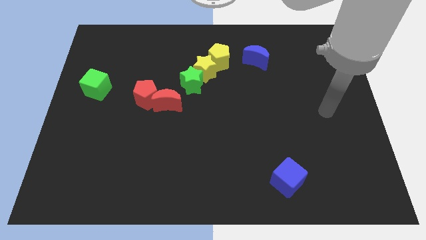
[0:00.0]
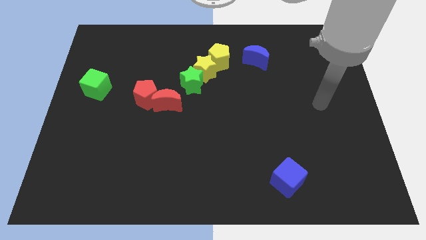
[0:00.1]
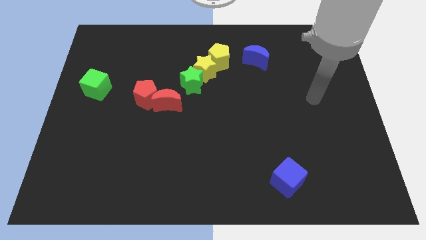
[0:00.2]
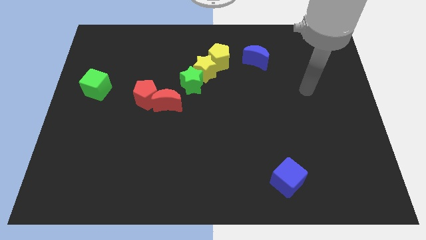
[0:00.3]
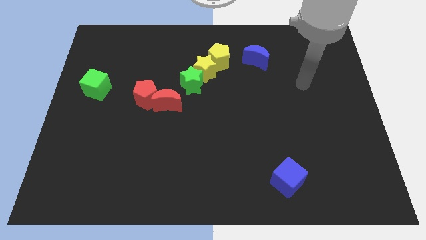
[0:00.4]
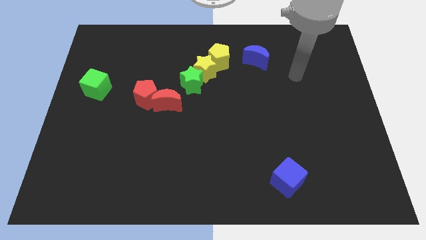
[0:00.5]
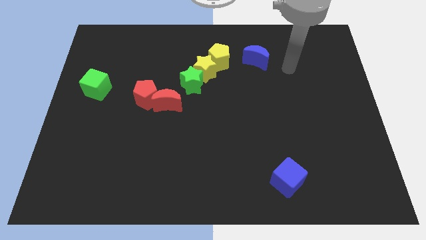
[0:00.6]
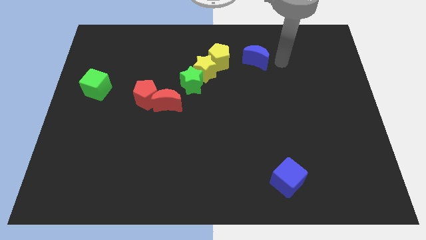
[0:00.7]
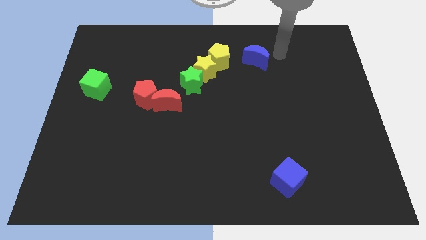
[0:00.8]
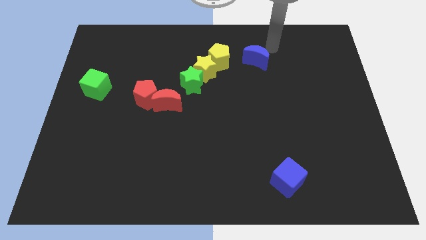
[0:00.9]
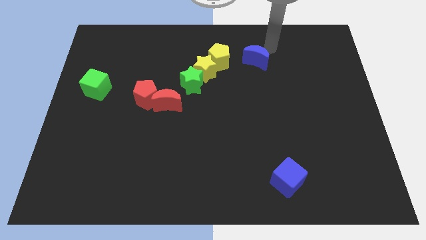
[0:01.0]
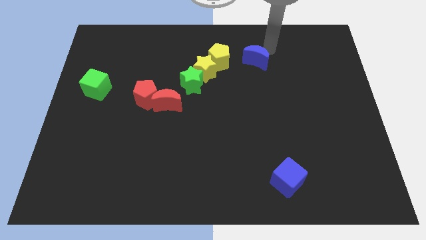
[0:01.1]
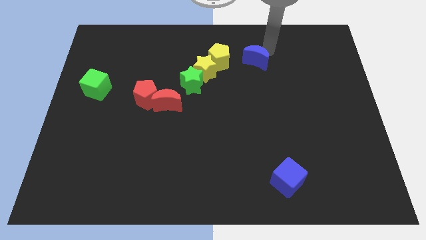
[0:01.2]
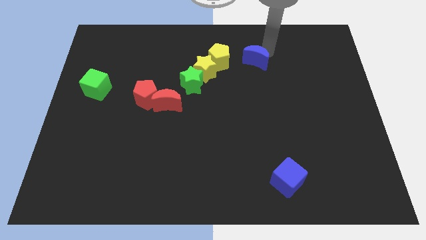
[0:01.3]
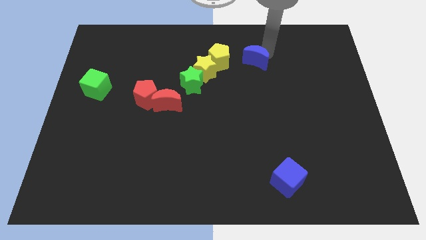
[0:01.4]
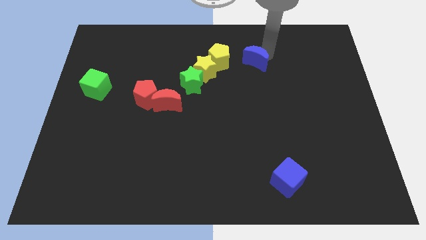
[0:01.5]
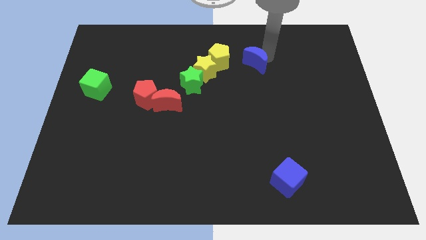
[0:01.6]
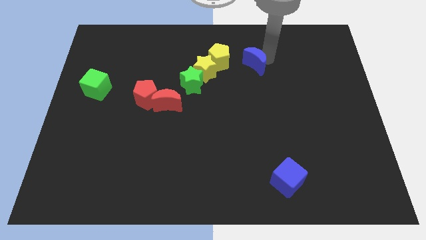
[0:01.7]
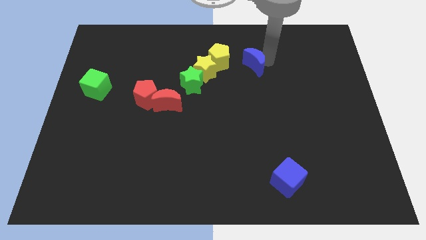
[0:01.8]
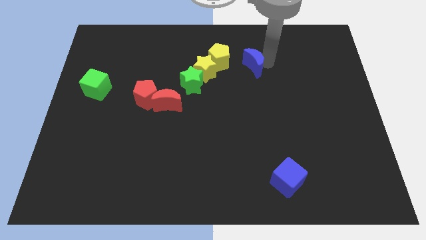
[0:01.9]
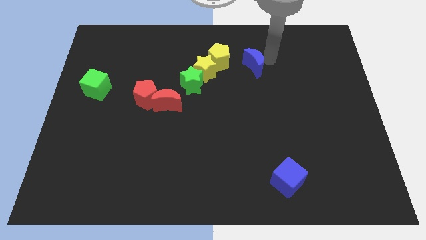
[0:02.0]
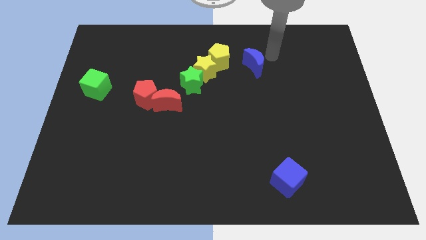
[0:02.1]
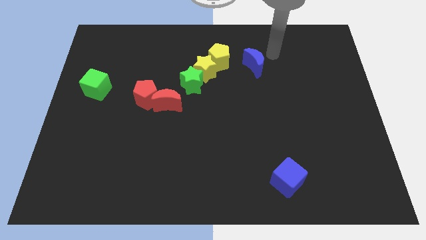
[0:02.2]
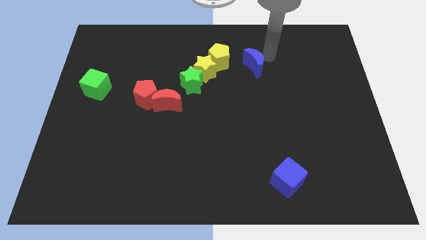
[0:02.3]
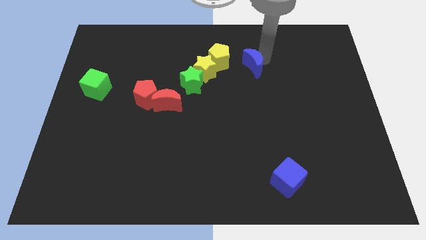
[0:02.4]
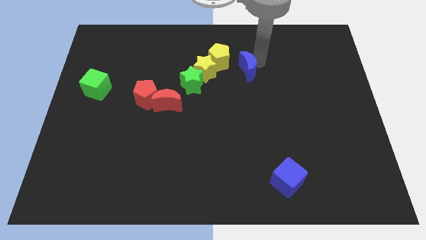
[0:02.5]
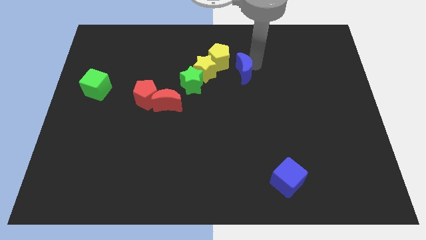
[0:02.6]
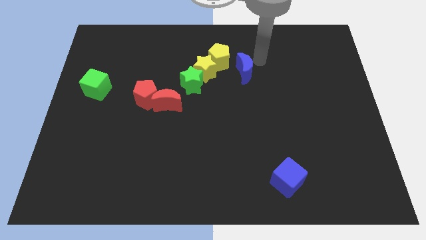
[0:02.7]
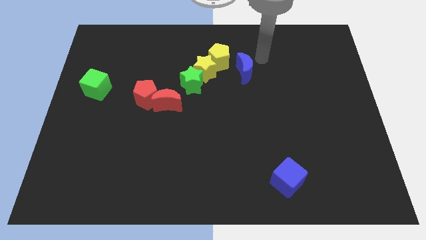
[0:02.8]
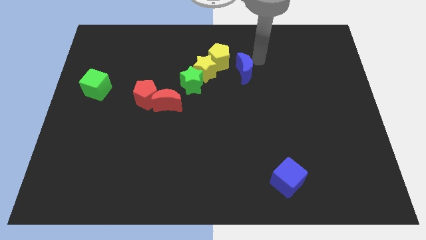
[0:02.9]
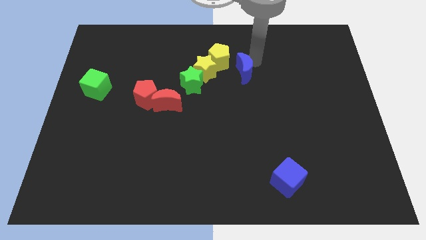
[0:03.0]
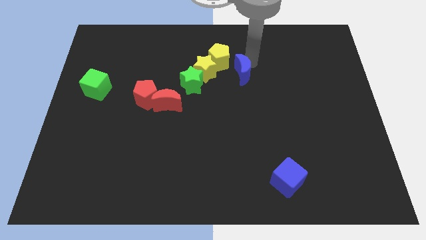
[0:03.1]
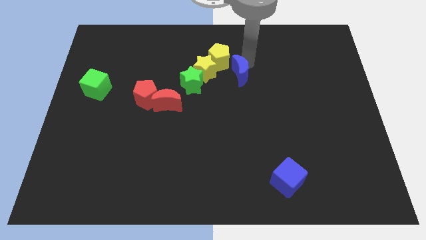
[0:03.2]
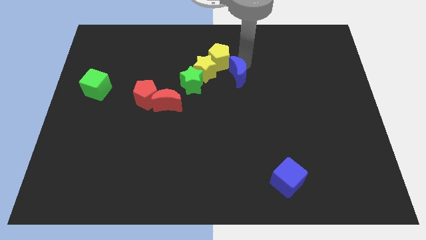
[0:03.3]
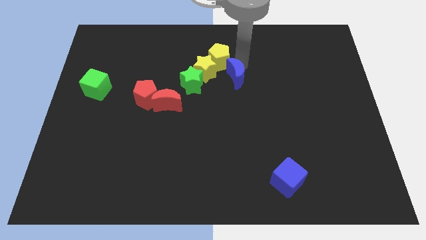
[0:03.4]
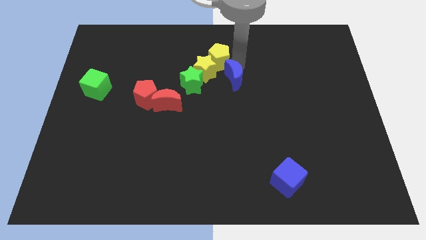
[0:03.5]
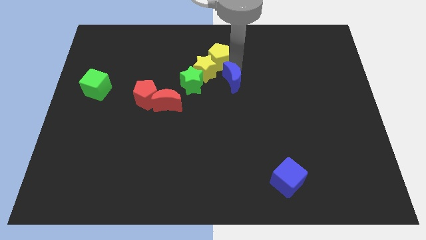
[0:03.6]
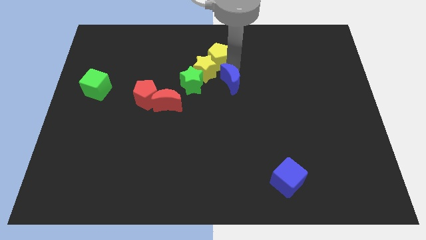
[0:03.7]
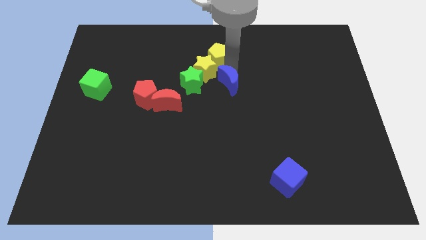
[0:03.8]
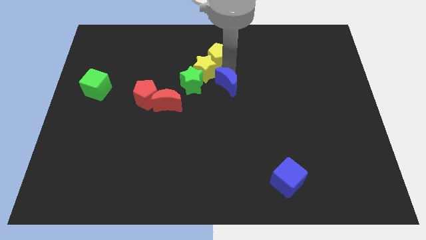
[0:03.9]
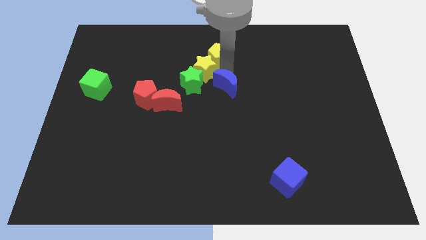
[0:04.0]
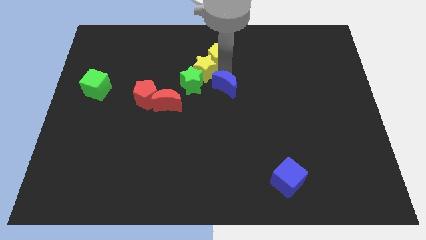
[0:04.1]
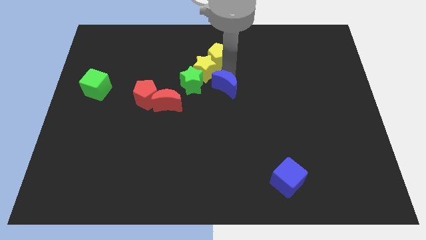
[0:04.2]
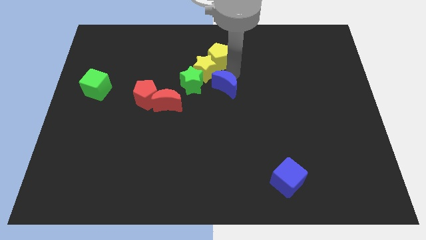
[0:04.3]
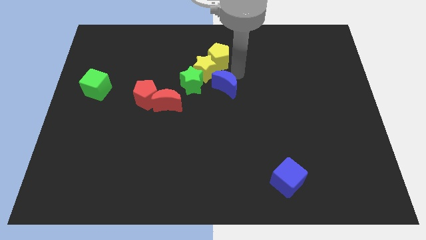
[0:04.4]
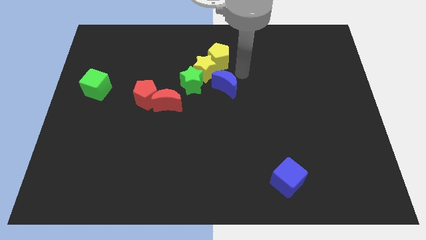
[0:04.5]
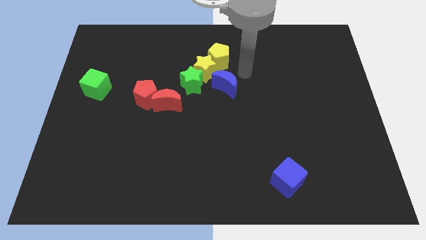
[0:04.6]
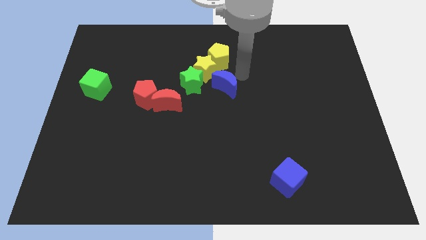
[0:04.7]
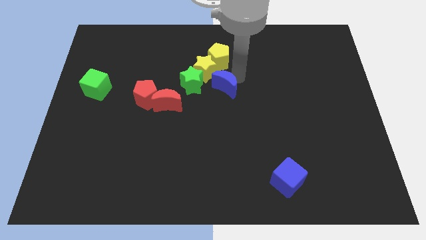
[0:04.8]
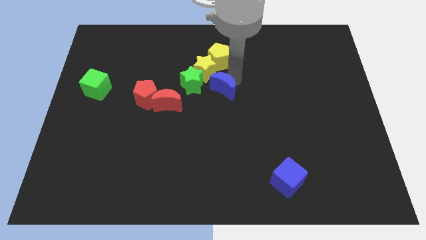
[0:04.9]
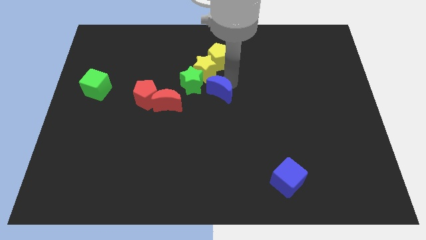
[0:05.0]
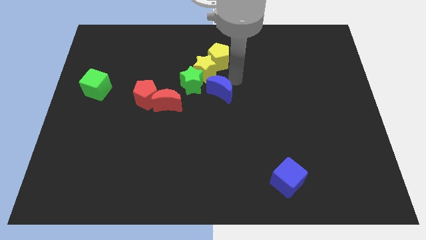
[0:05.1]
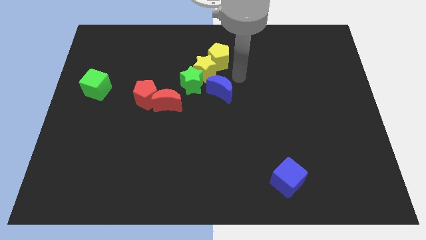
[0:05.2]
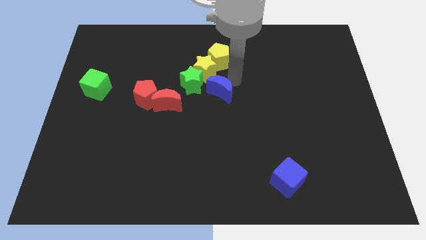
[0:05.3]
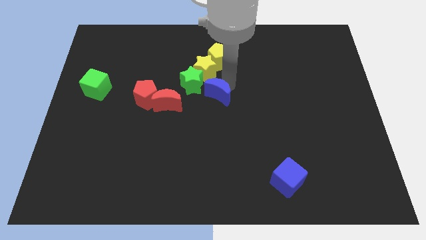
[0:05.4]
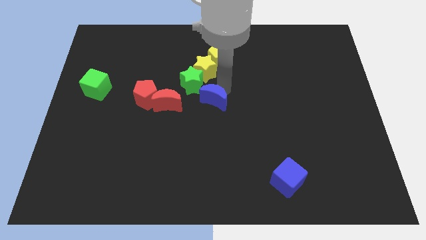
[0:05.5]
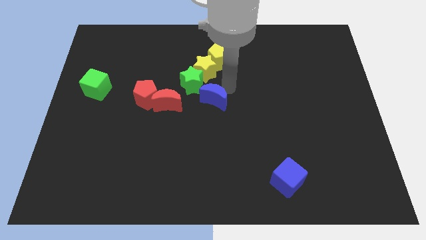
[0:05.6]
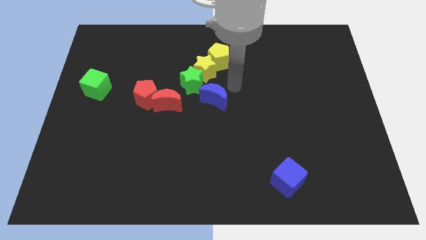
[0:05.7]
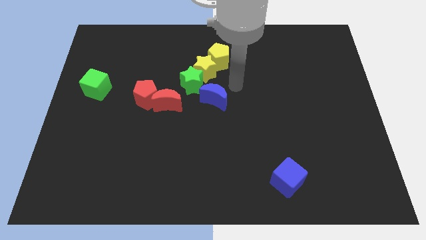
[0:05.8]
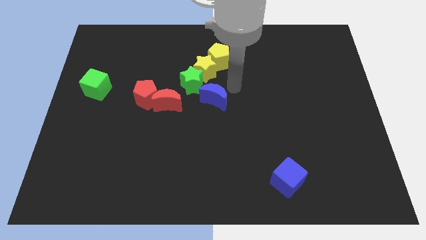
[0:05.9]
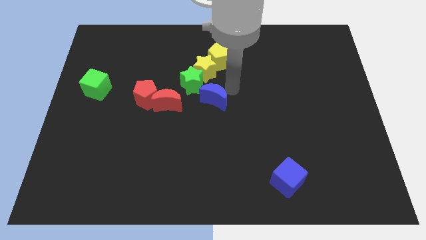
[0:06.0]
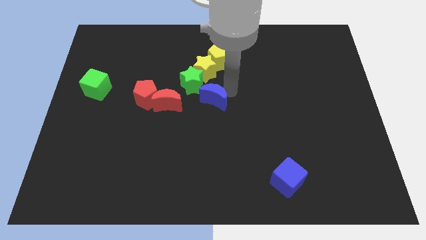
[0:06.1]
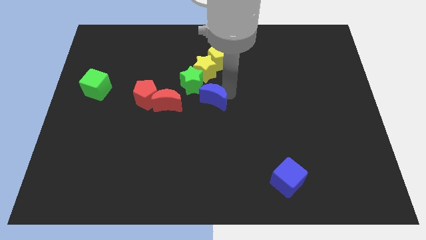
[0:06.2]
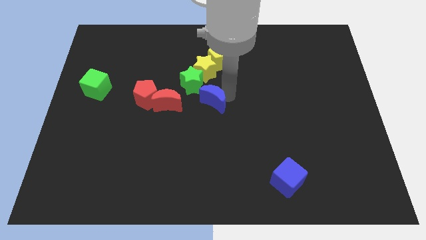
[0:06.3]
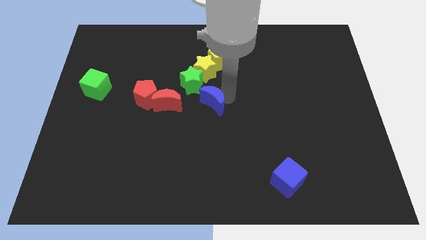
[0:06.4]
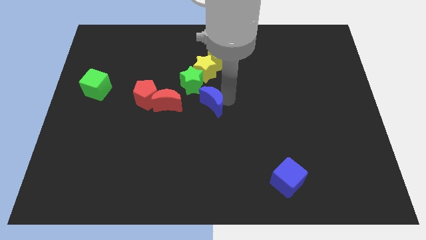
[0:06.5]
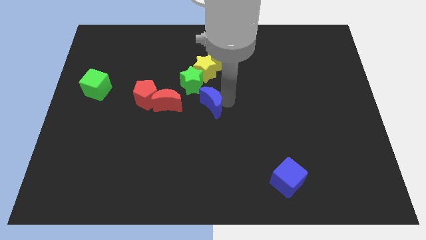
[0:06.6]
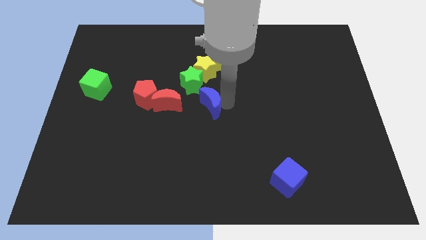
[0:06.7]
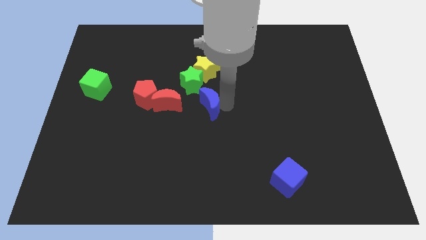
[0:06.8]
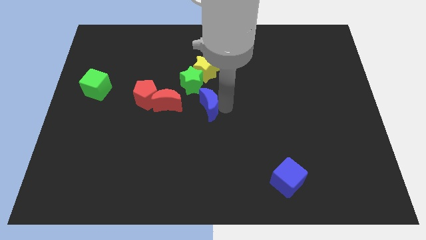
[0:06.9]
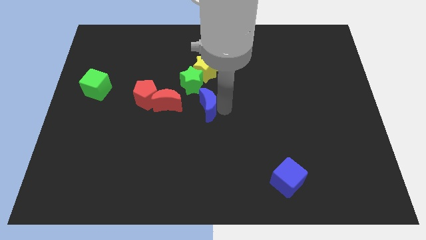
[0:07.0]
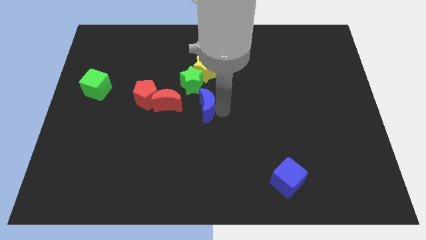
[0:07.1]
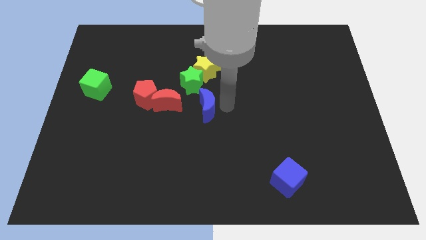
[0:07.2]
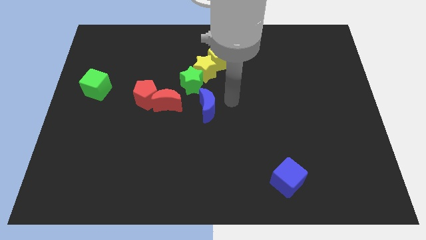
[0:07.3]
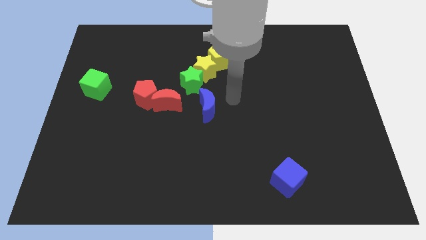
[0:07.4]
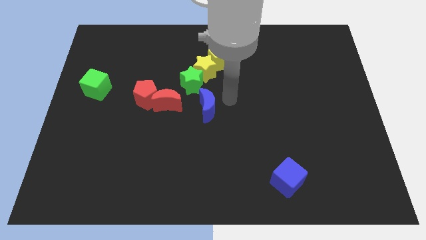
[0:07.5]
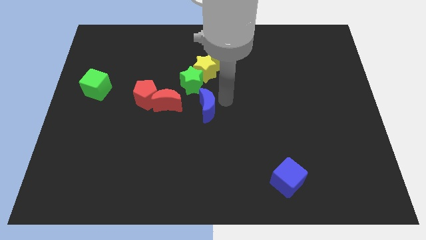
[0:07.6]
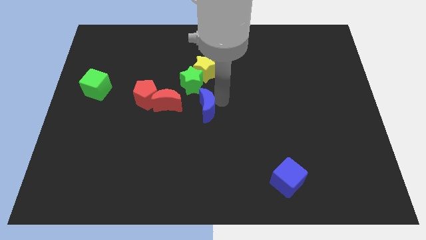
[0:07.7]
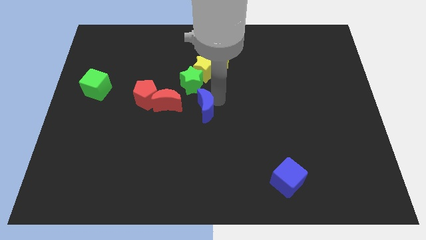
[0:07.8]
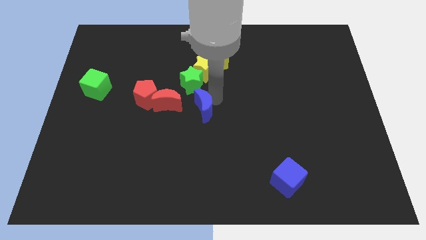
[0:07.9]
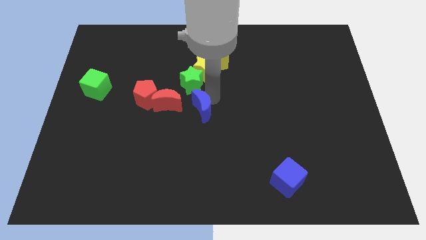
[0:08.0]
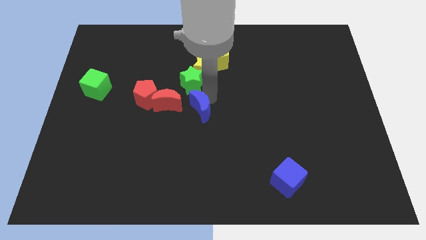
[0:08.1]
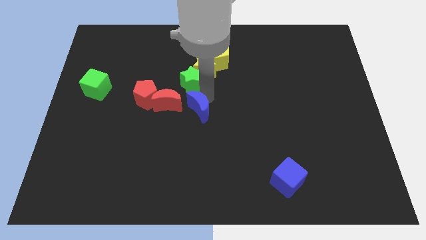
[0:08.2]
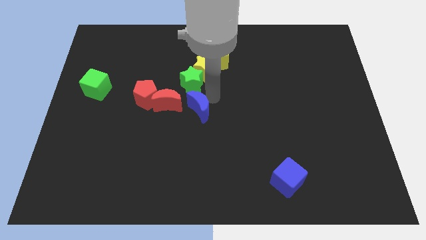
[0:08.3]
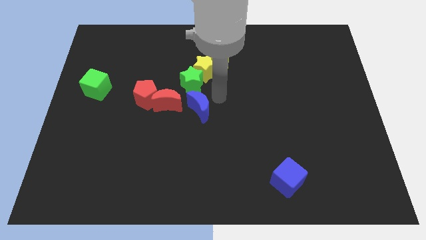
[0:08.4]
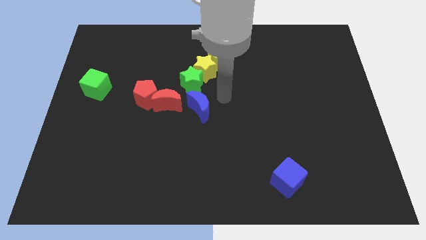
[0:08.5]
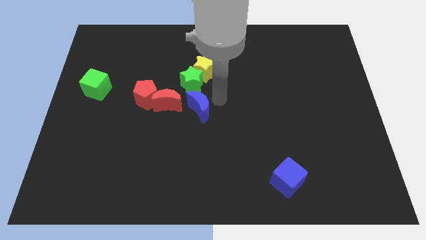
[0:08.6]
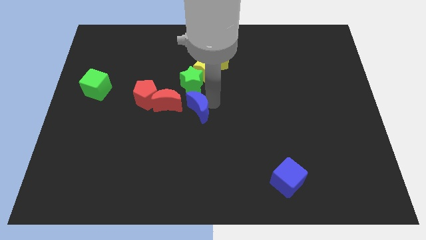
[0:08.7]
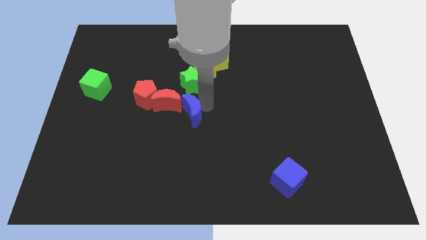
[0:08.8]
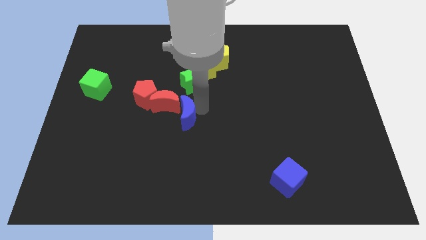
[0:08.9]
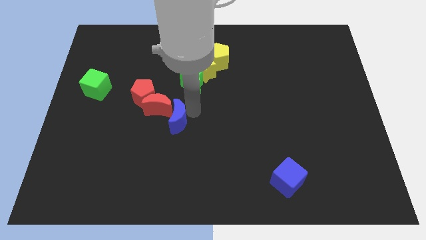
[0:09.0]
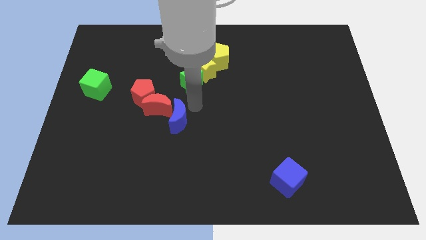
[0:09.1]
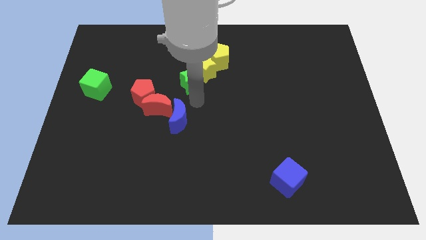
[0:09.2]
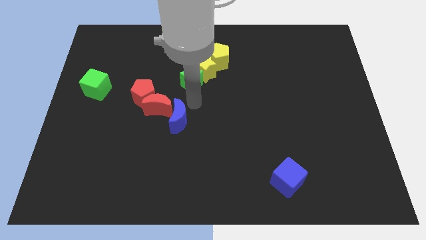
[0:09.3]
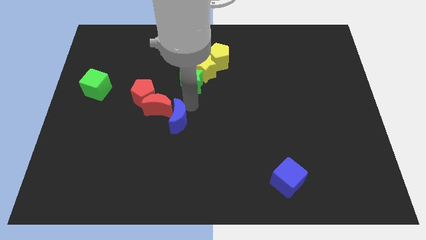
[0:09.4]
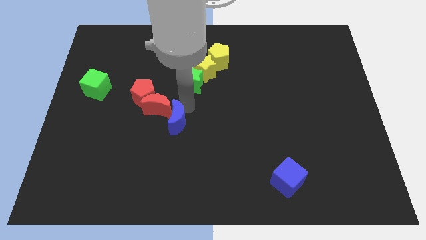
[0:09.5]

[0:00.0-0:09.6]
put the blue moon to the bottom of the red moon
